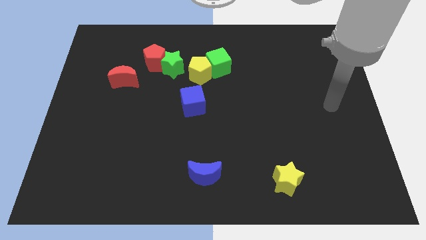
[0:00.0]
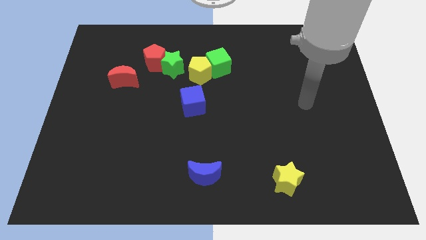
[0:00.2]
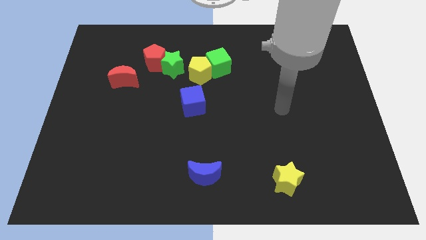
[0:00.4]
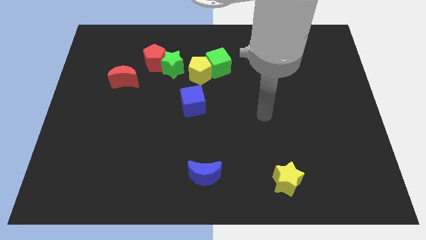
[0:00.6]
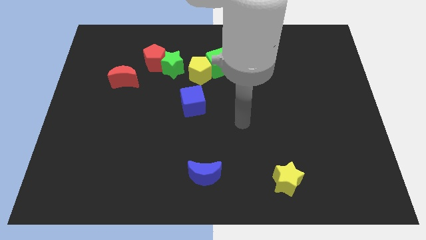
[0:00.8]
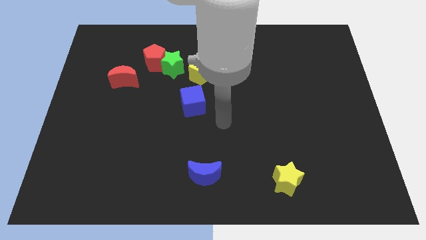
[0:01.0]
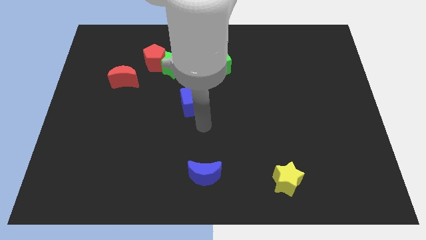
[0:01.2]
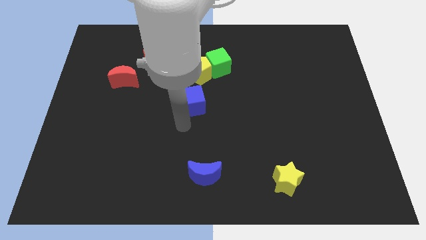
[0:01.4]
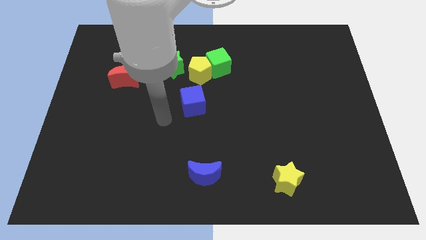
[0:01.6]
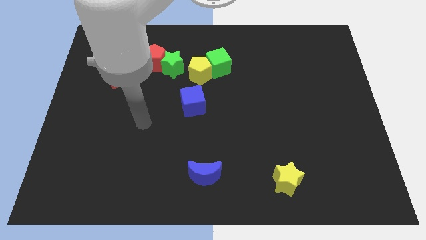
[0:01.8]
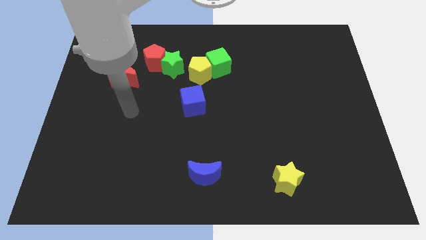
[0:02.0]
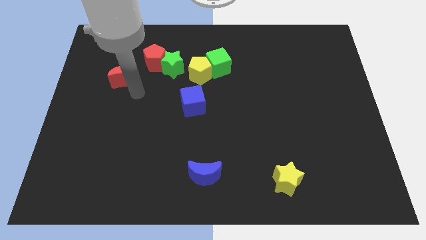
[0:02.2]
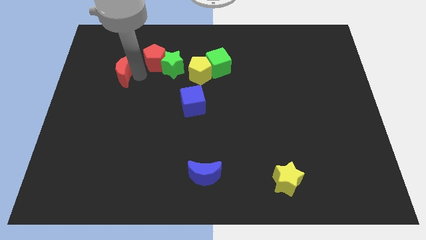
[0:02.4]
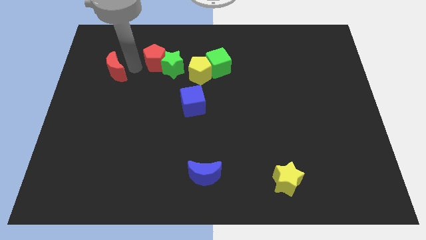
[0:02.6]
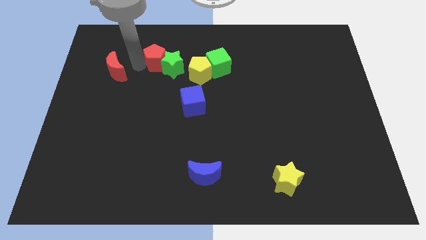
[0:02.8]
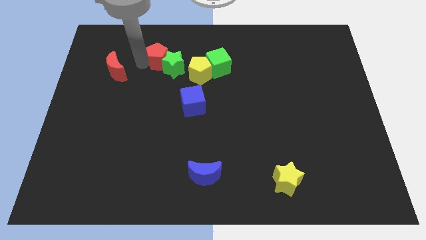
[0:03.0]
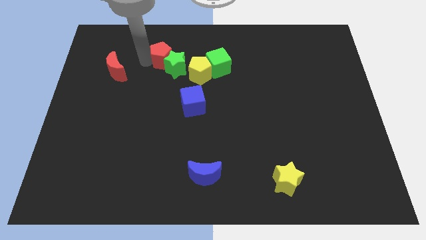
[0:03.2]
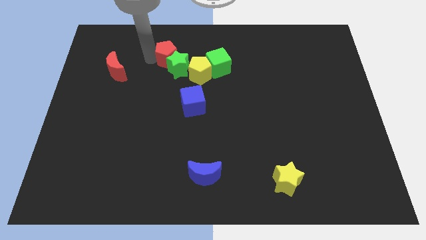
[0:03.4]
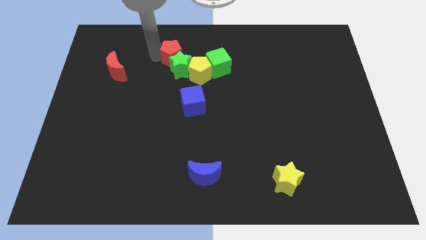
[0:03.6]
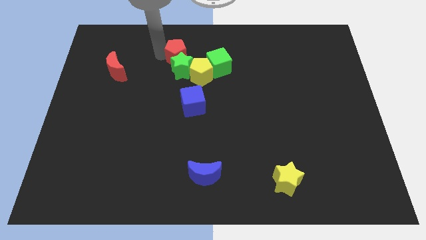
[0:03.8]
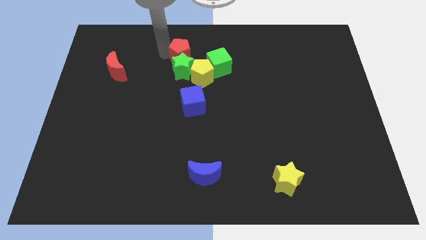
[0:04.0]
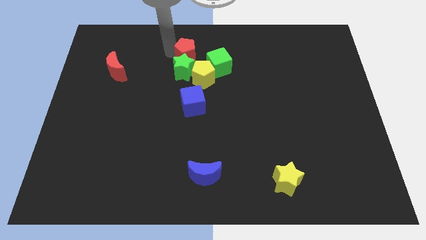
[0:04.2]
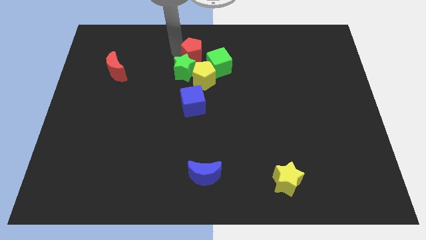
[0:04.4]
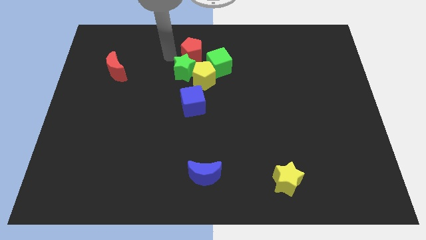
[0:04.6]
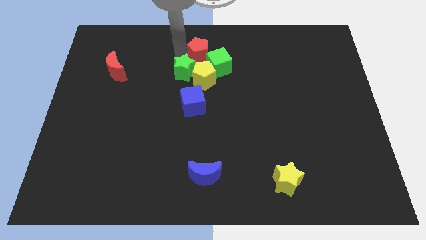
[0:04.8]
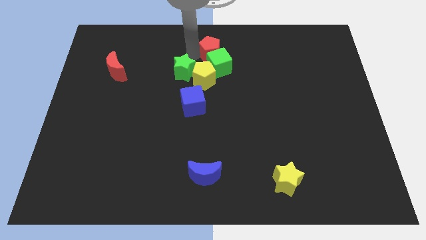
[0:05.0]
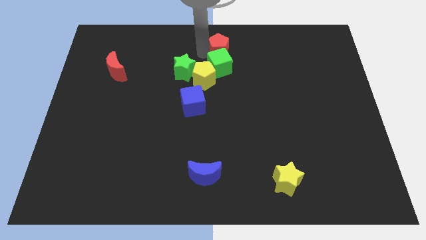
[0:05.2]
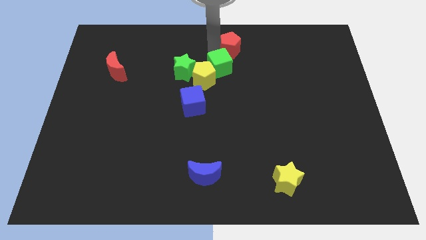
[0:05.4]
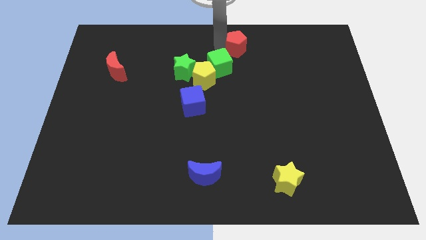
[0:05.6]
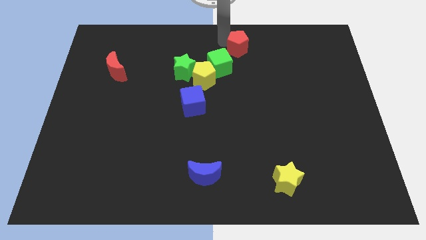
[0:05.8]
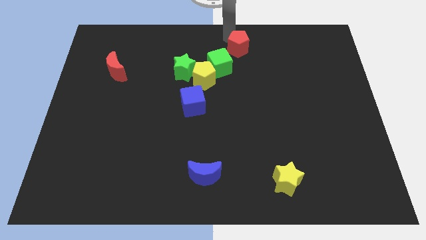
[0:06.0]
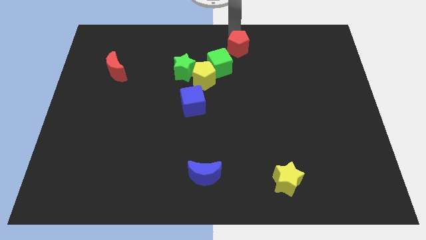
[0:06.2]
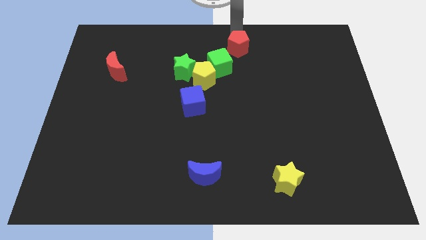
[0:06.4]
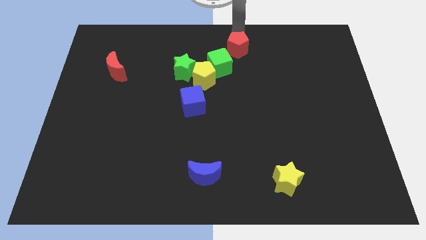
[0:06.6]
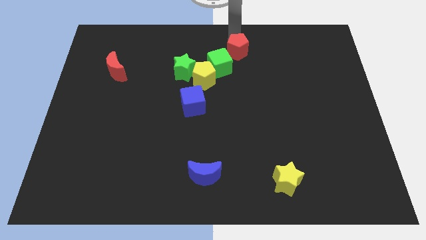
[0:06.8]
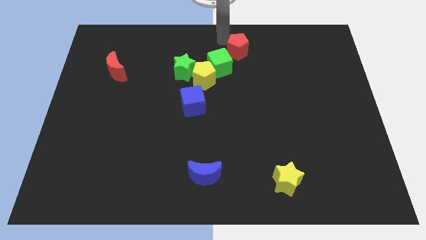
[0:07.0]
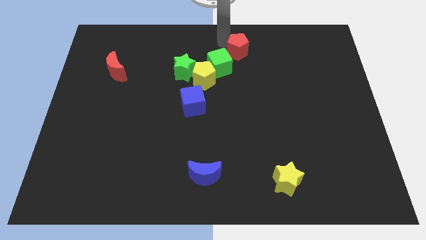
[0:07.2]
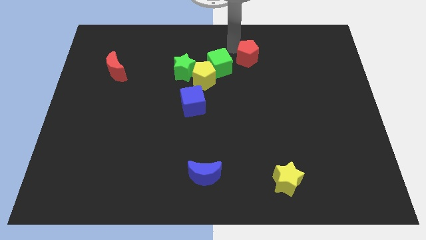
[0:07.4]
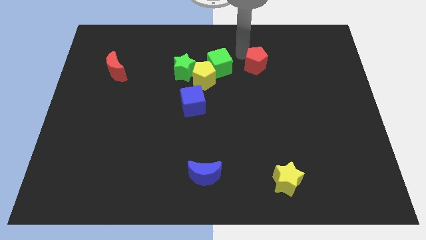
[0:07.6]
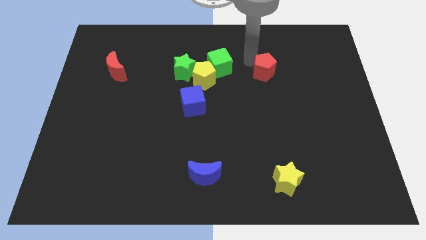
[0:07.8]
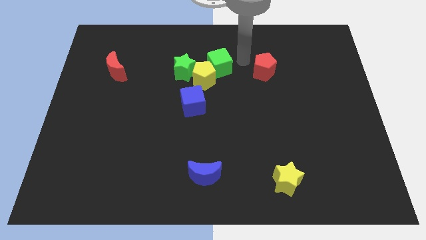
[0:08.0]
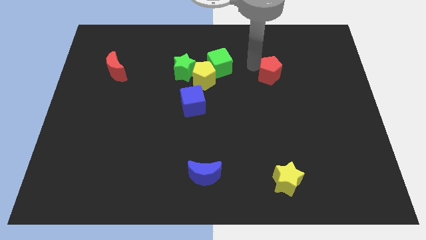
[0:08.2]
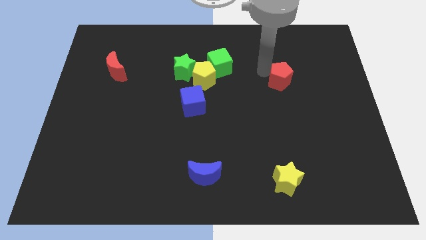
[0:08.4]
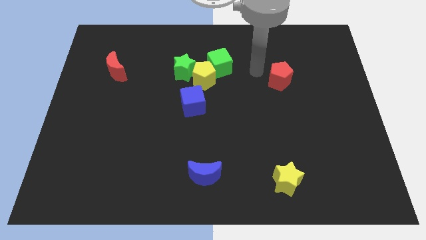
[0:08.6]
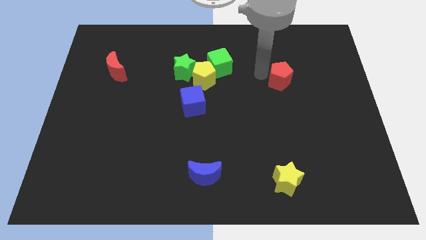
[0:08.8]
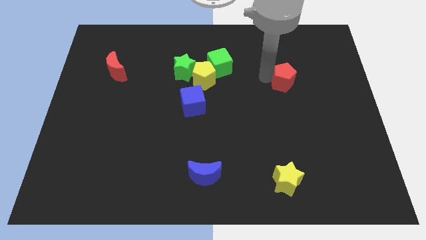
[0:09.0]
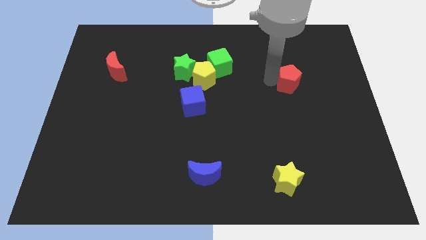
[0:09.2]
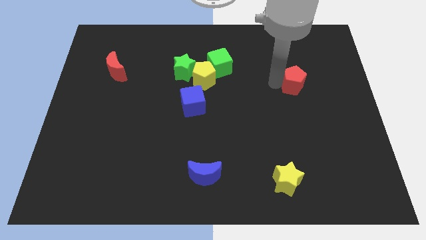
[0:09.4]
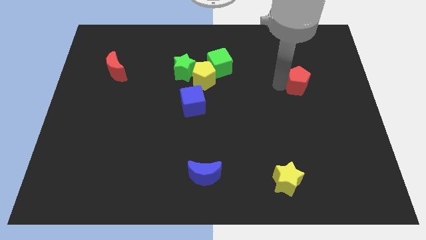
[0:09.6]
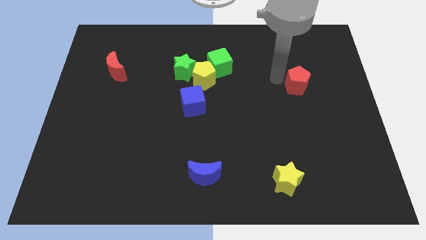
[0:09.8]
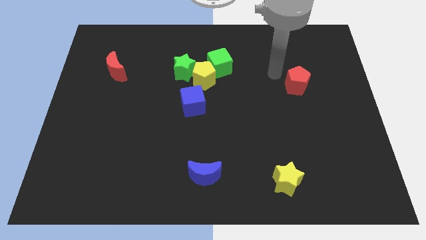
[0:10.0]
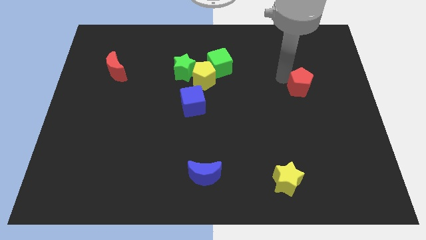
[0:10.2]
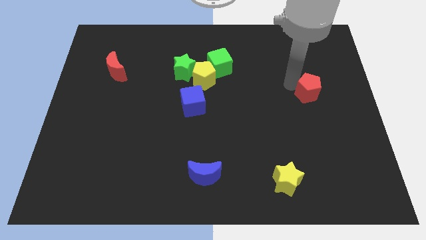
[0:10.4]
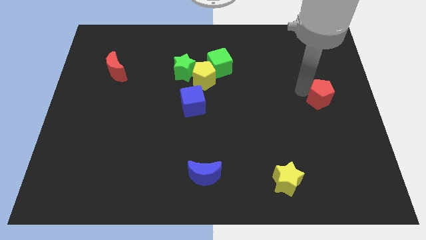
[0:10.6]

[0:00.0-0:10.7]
move the red pentagon to the right side of the board
